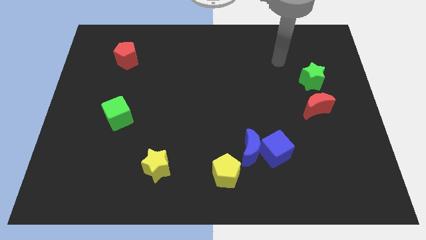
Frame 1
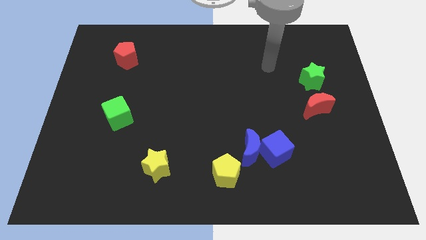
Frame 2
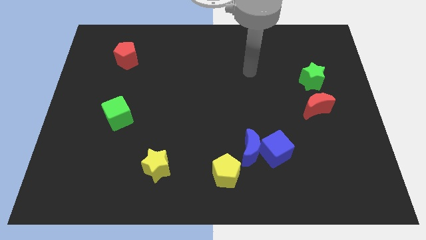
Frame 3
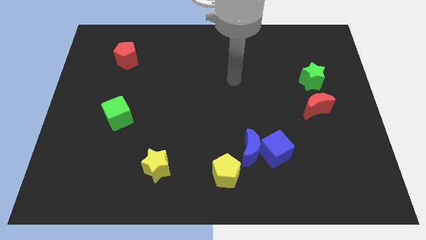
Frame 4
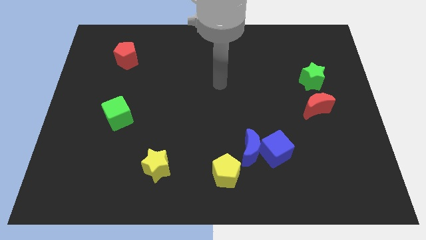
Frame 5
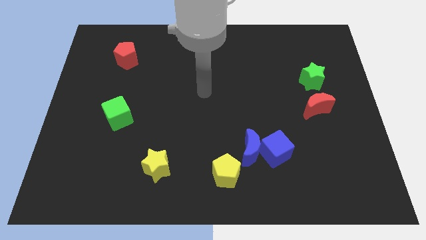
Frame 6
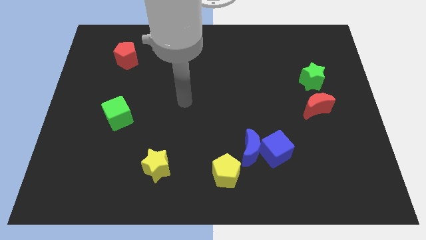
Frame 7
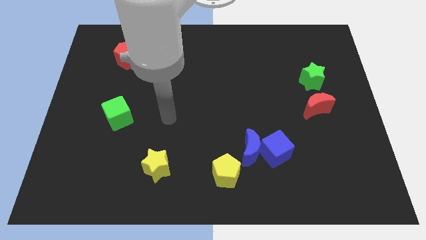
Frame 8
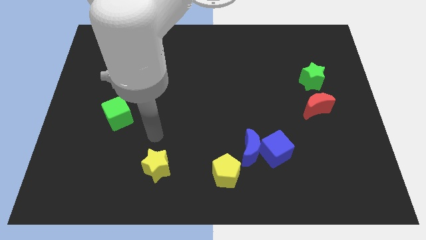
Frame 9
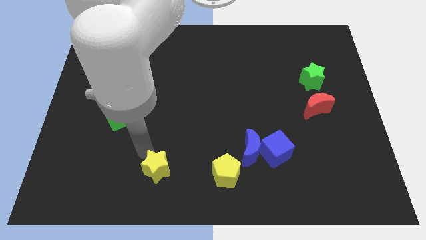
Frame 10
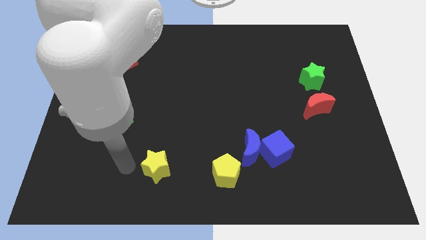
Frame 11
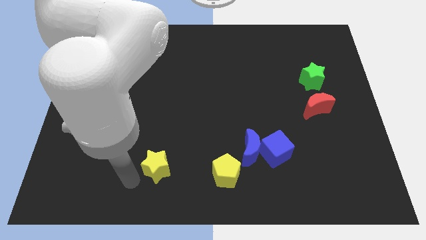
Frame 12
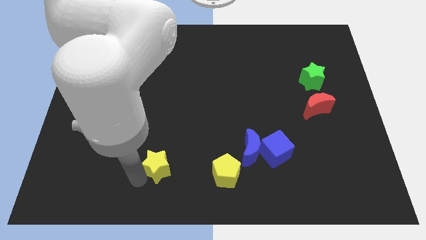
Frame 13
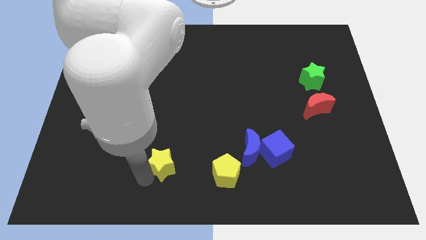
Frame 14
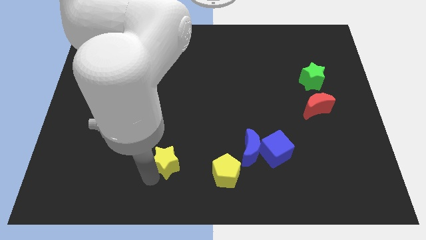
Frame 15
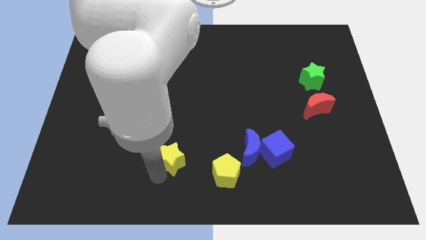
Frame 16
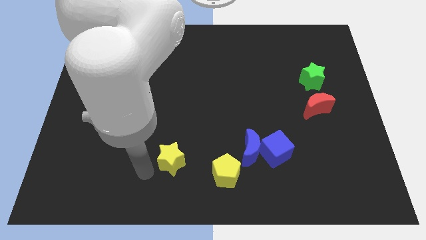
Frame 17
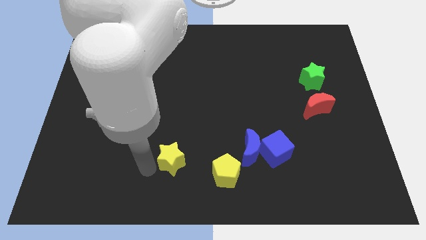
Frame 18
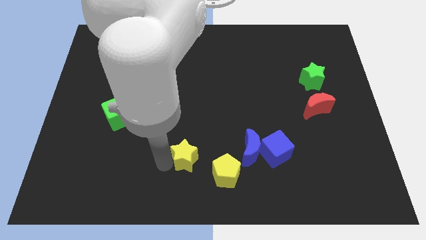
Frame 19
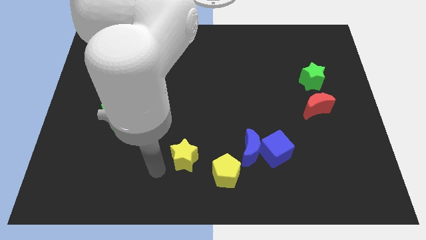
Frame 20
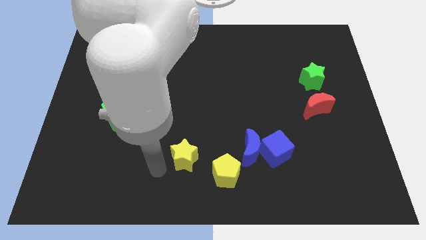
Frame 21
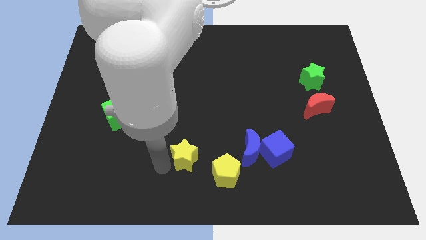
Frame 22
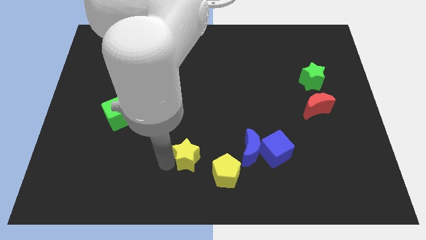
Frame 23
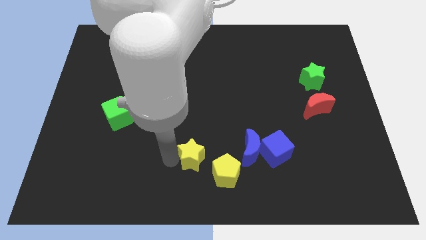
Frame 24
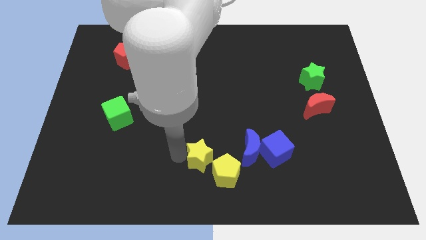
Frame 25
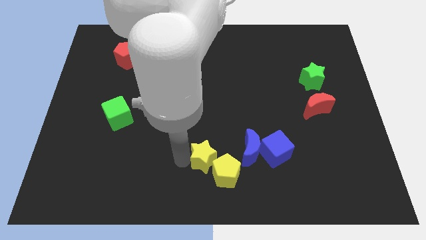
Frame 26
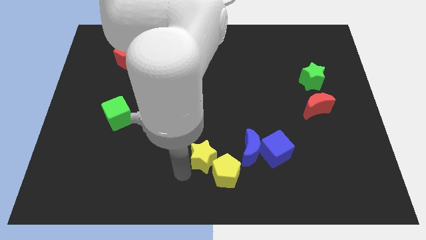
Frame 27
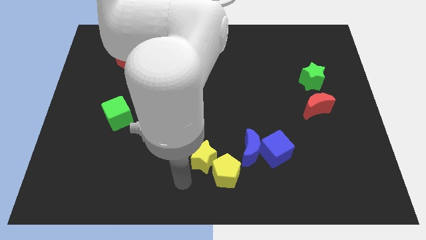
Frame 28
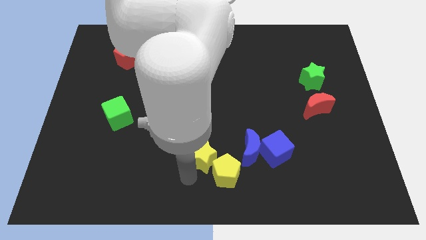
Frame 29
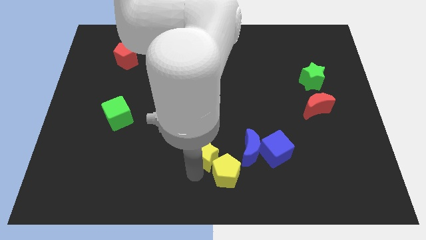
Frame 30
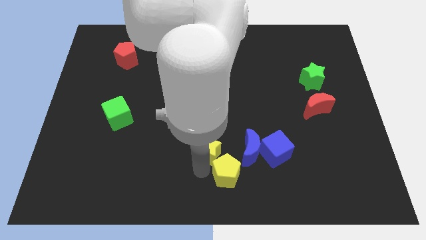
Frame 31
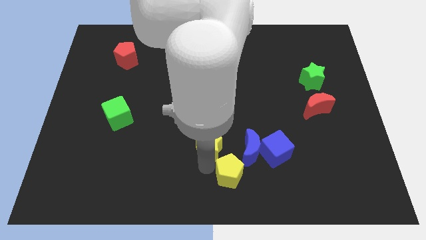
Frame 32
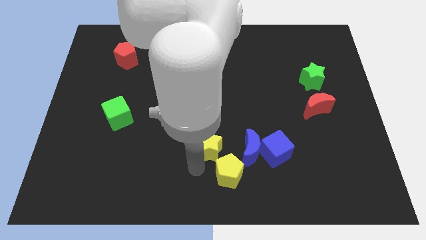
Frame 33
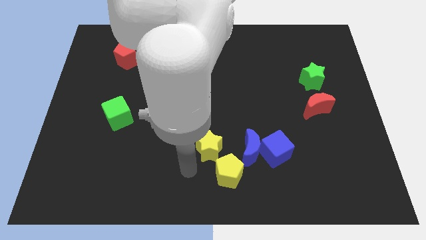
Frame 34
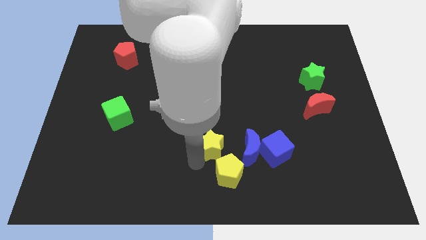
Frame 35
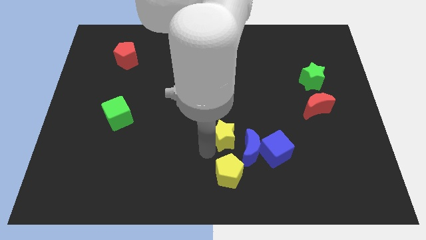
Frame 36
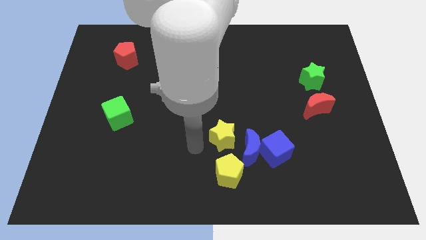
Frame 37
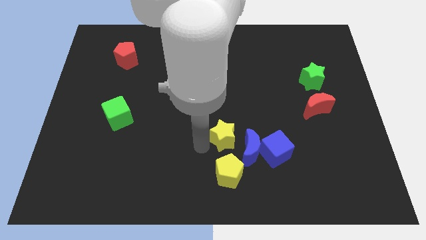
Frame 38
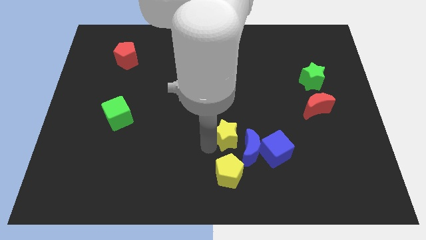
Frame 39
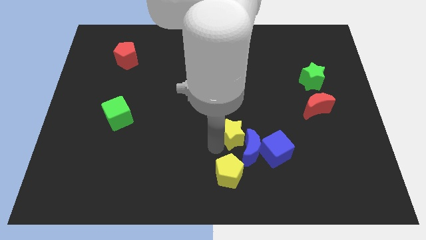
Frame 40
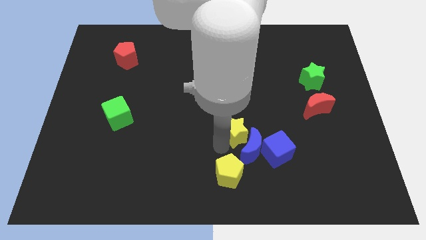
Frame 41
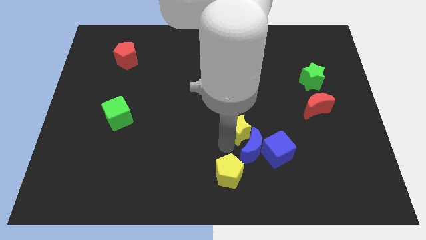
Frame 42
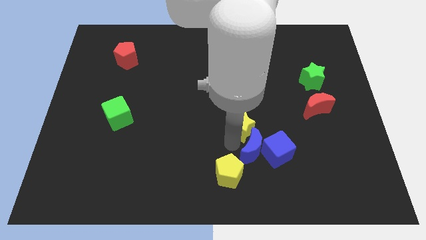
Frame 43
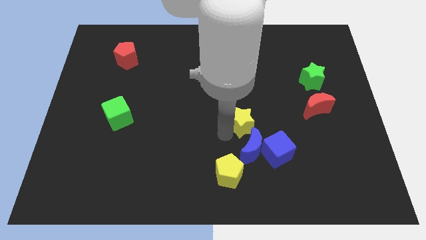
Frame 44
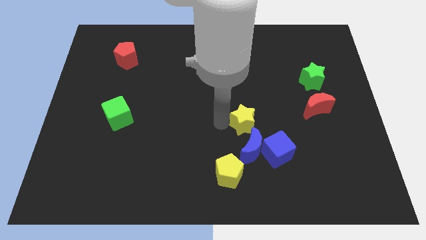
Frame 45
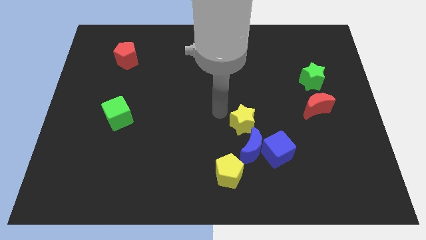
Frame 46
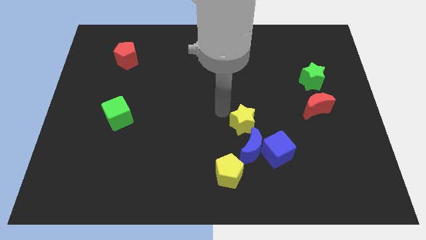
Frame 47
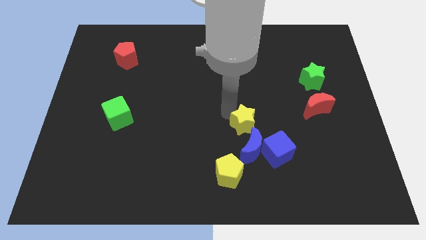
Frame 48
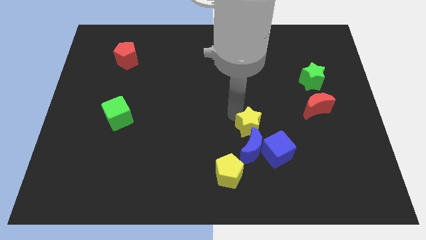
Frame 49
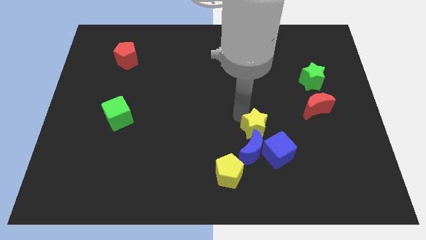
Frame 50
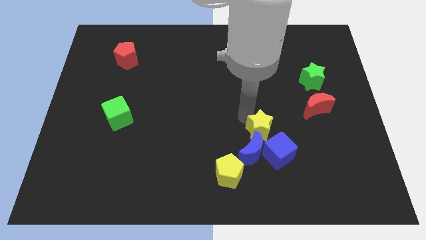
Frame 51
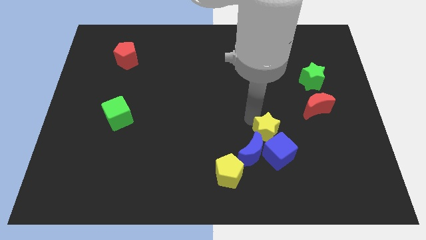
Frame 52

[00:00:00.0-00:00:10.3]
push the yellow star close to the blue cube

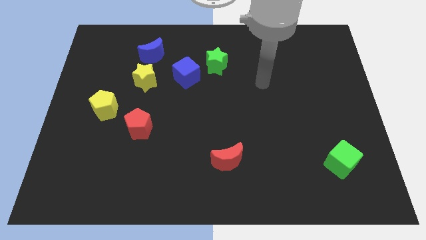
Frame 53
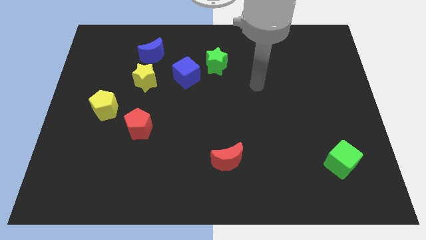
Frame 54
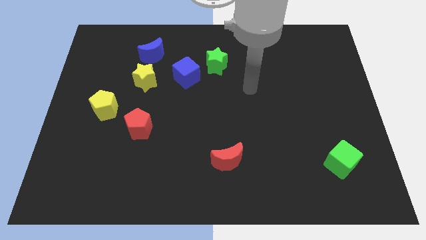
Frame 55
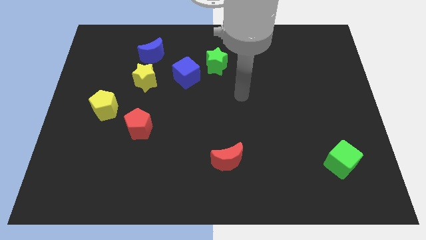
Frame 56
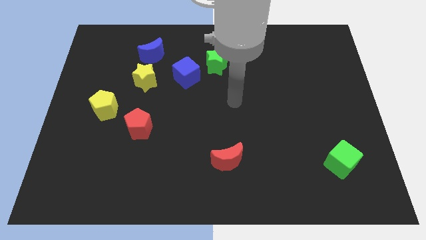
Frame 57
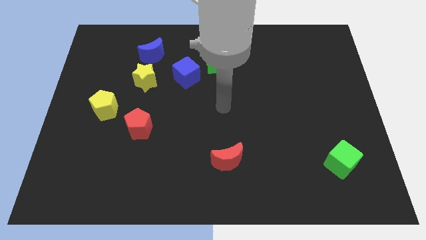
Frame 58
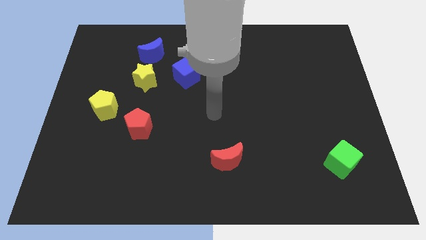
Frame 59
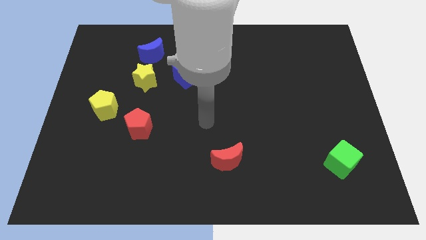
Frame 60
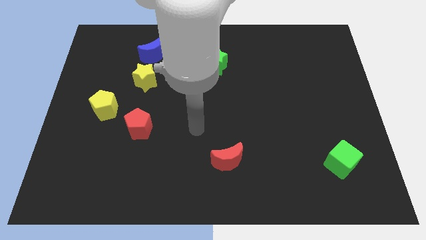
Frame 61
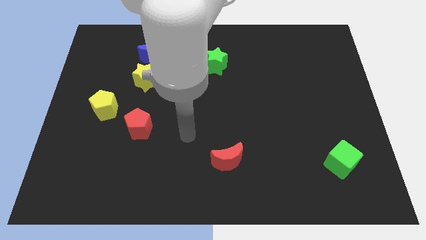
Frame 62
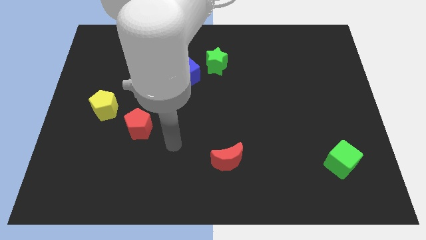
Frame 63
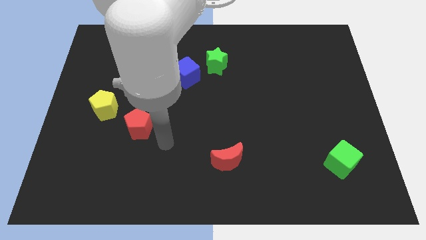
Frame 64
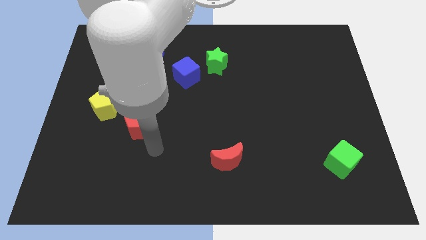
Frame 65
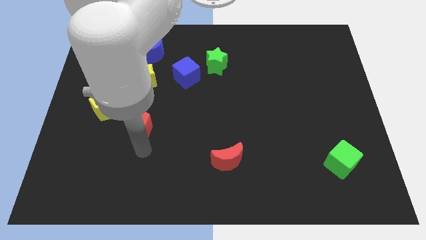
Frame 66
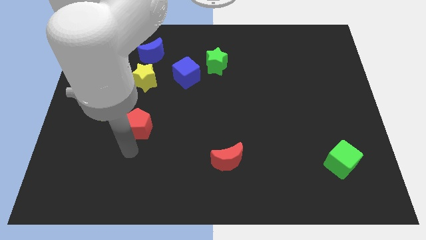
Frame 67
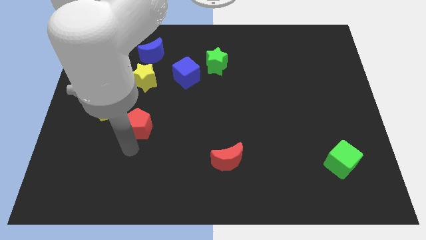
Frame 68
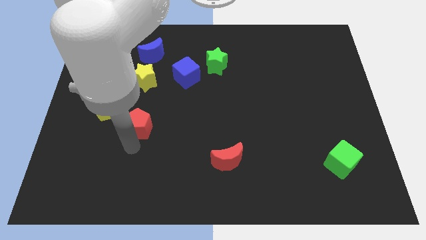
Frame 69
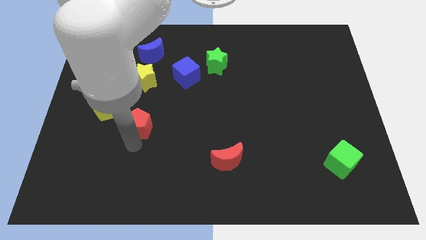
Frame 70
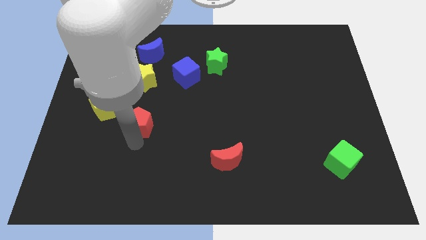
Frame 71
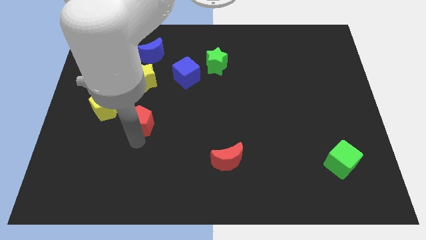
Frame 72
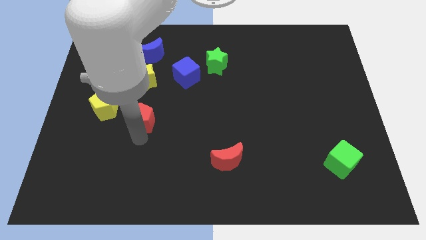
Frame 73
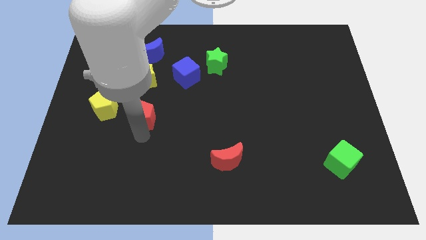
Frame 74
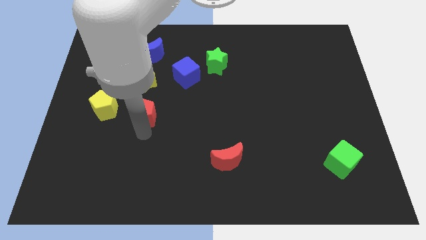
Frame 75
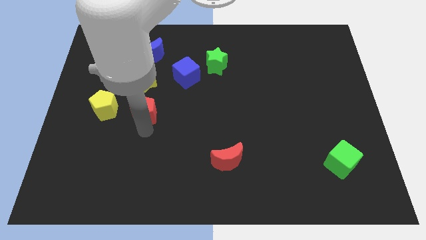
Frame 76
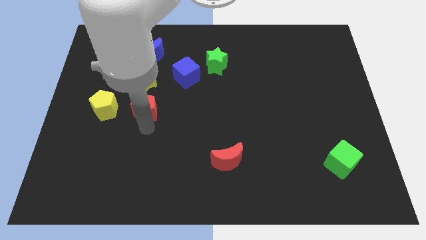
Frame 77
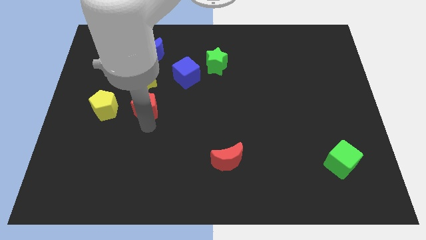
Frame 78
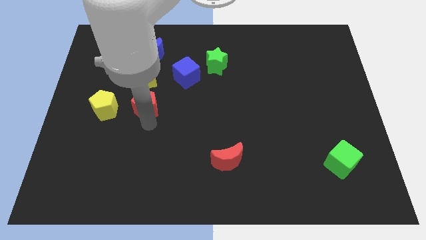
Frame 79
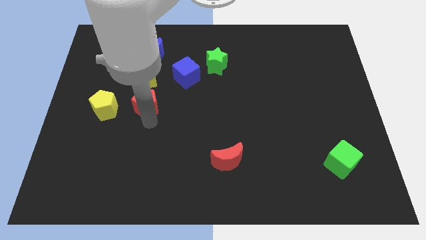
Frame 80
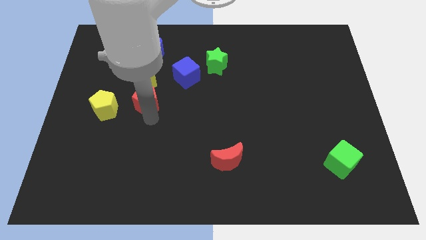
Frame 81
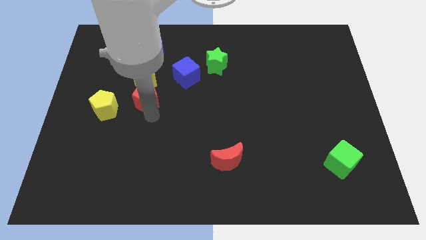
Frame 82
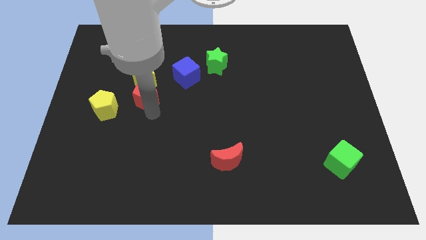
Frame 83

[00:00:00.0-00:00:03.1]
move the red pentagon close to the yellow star
